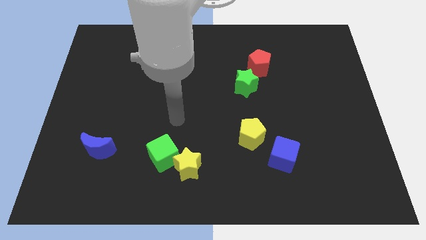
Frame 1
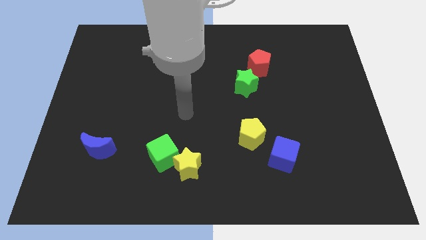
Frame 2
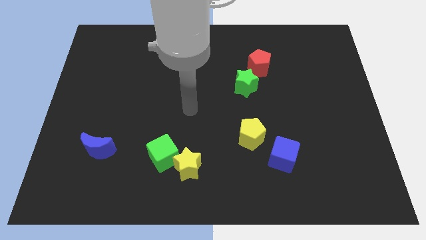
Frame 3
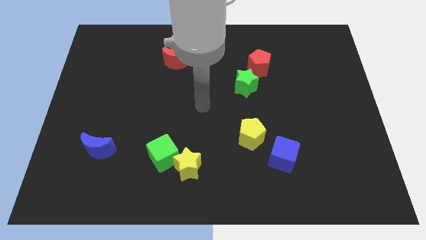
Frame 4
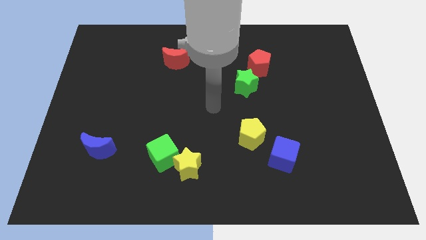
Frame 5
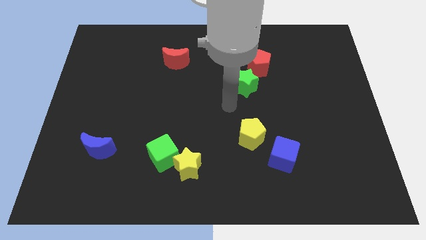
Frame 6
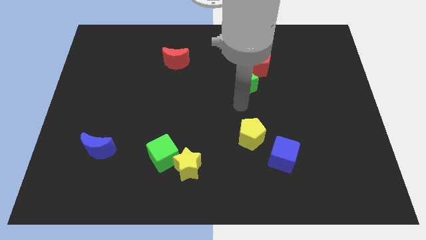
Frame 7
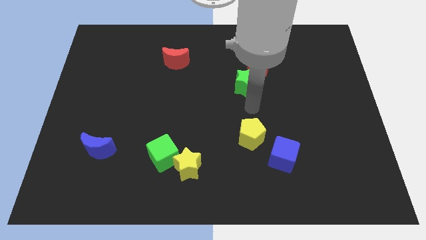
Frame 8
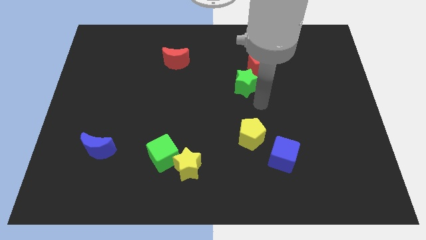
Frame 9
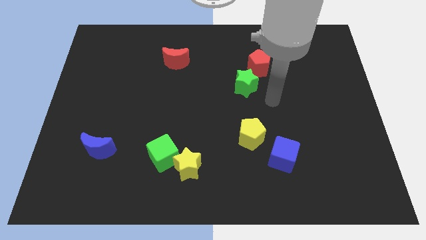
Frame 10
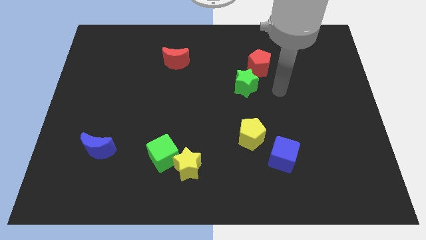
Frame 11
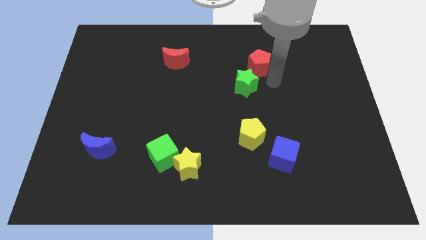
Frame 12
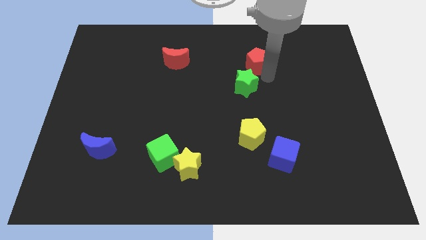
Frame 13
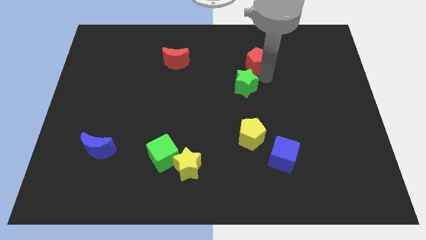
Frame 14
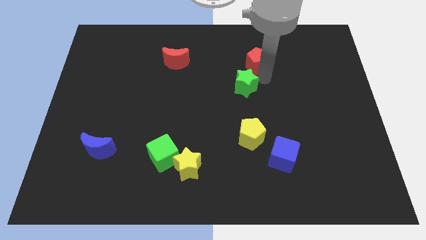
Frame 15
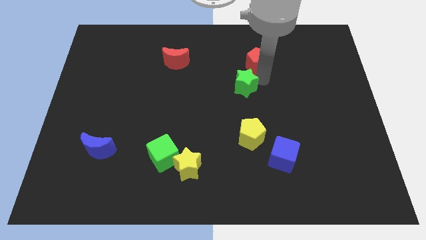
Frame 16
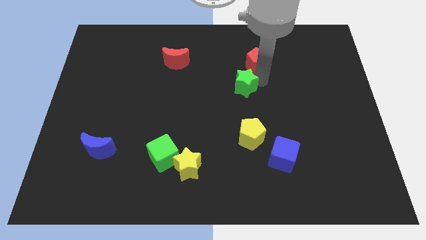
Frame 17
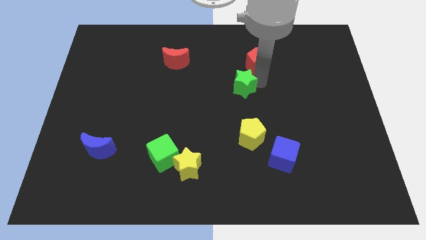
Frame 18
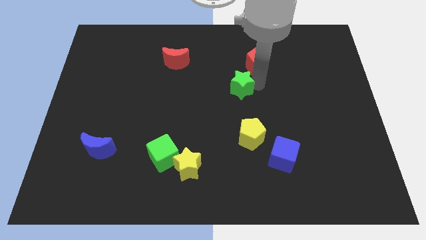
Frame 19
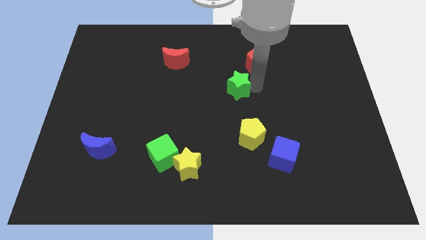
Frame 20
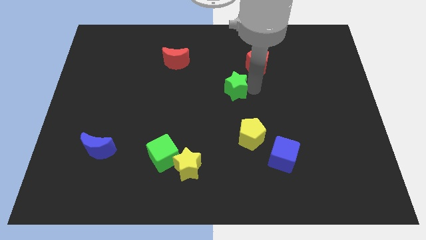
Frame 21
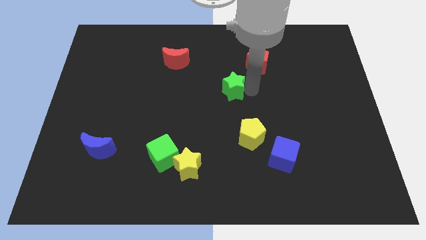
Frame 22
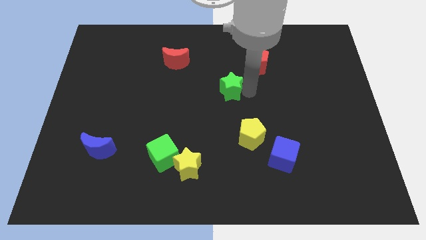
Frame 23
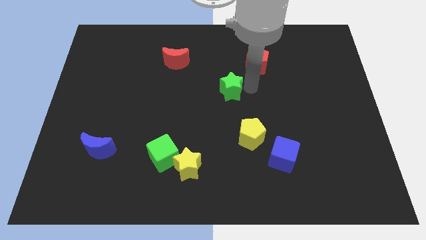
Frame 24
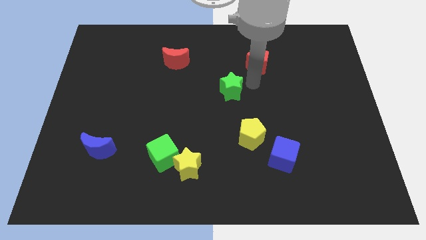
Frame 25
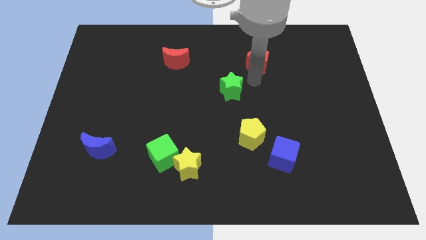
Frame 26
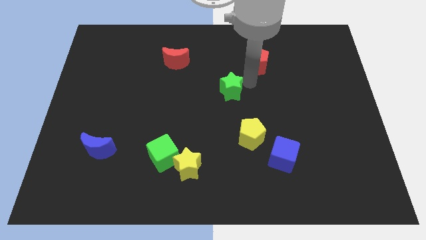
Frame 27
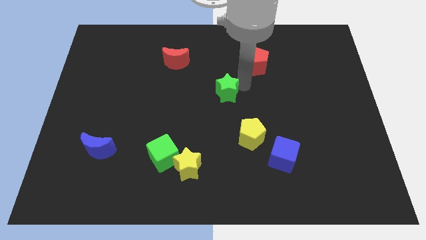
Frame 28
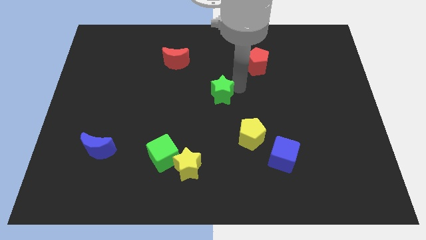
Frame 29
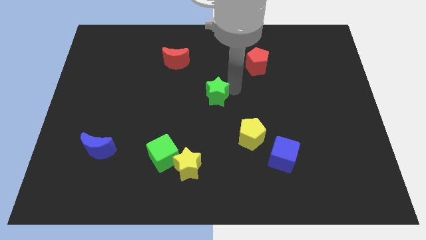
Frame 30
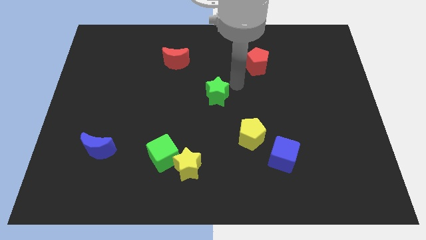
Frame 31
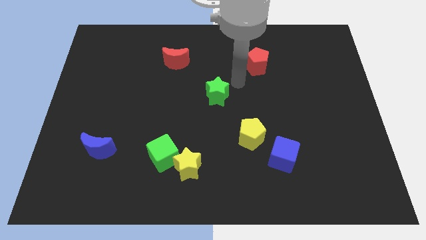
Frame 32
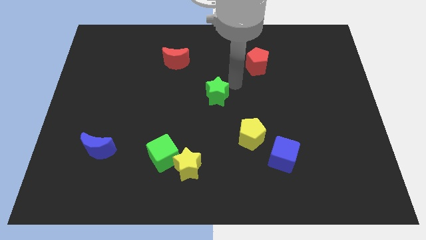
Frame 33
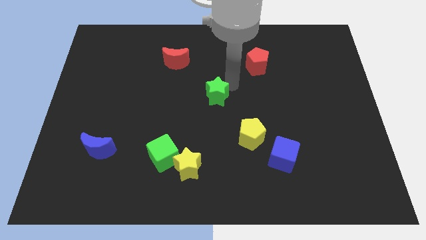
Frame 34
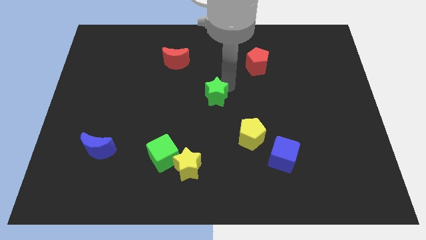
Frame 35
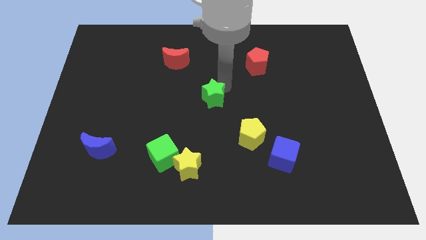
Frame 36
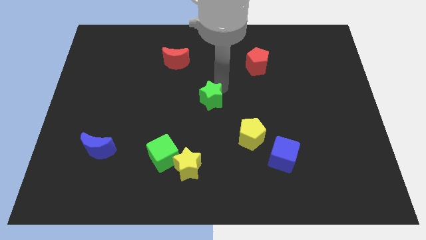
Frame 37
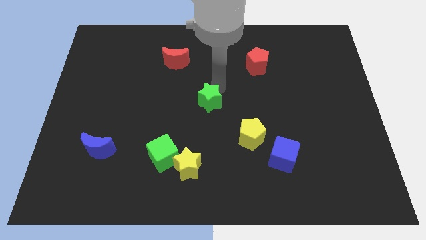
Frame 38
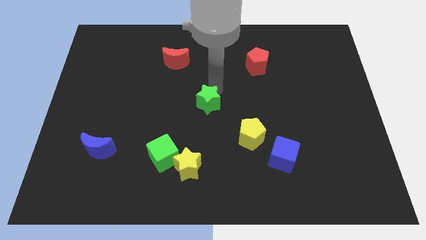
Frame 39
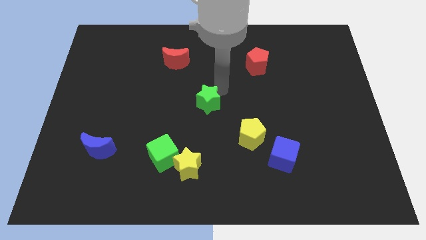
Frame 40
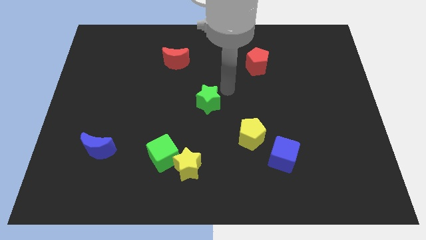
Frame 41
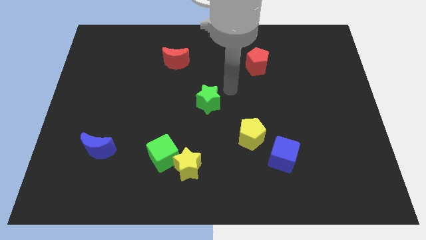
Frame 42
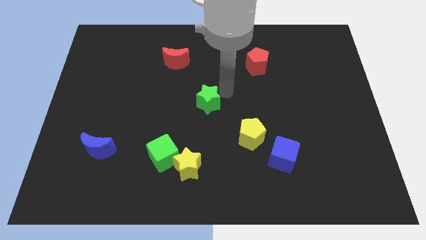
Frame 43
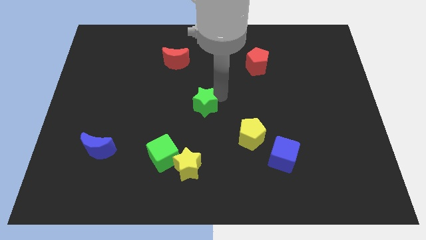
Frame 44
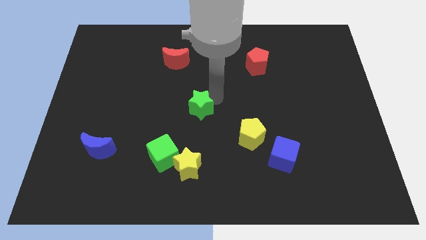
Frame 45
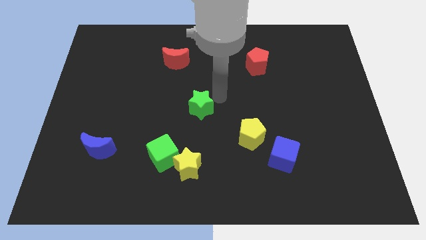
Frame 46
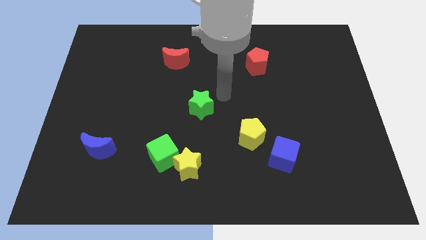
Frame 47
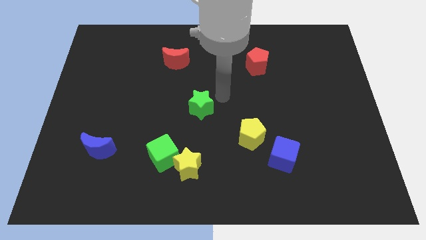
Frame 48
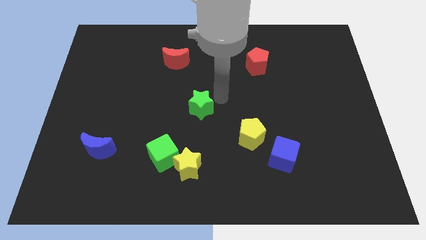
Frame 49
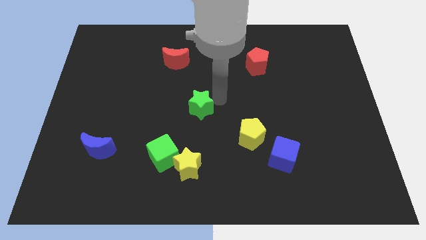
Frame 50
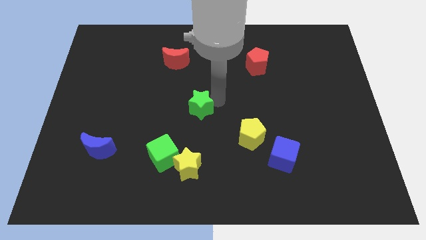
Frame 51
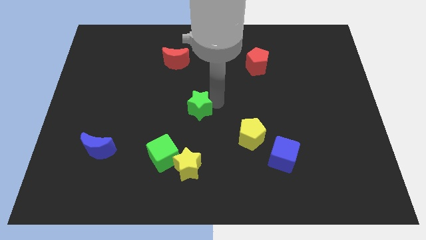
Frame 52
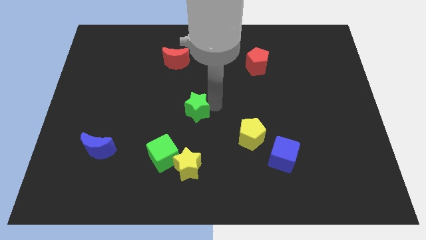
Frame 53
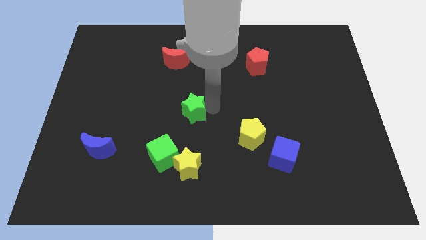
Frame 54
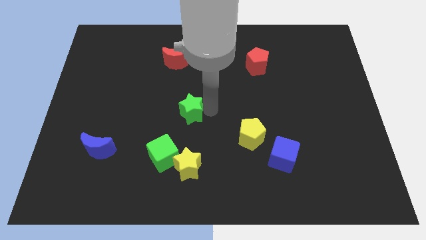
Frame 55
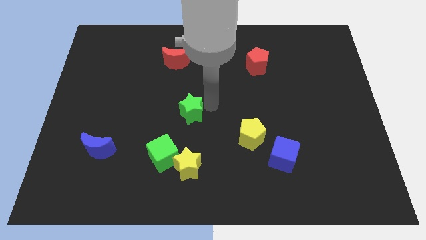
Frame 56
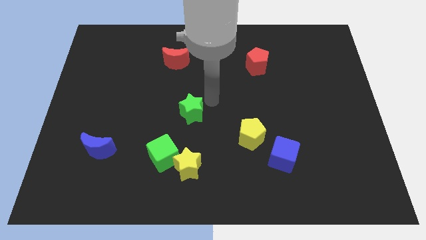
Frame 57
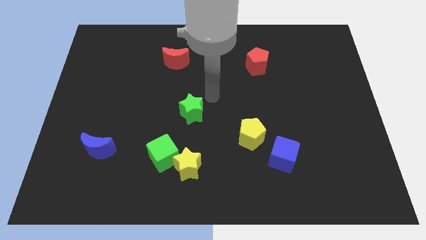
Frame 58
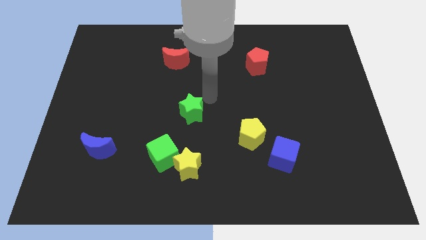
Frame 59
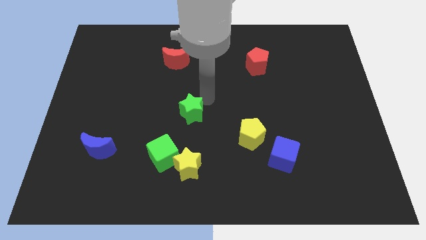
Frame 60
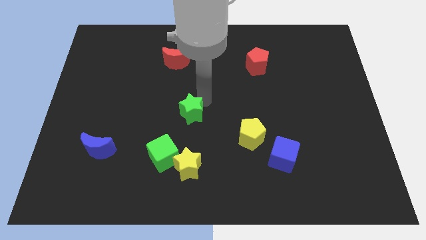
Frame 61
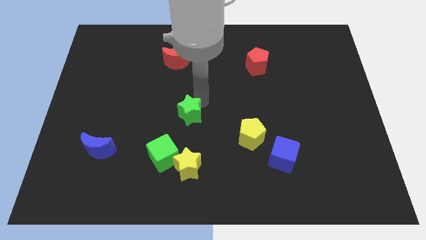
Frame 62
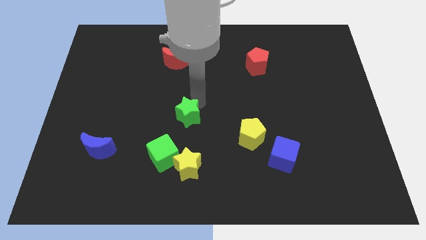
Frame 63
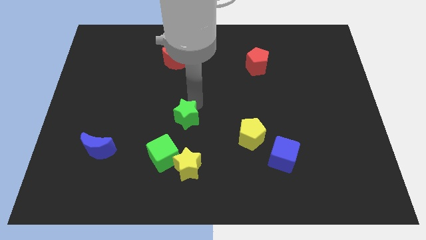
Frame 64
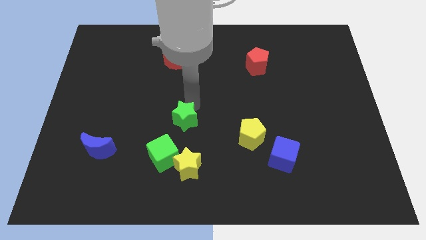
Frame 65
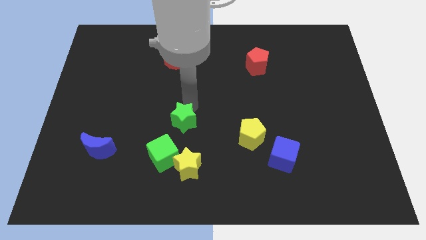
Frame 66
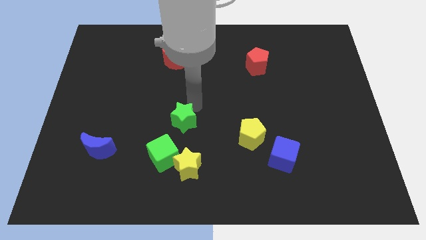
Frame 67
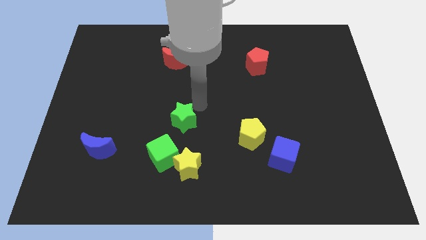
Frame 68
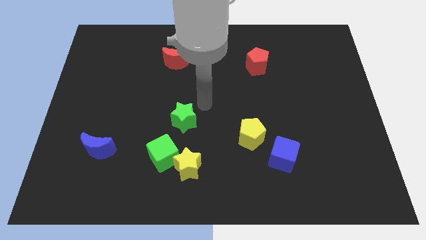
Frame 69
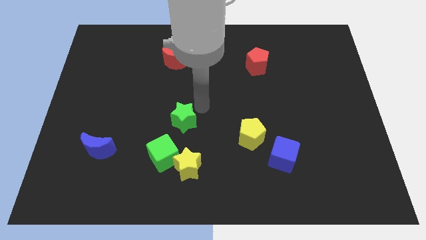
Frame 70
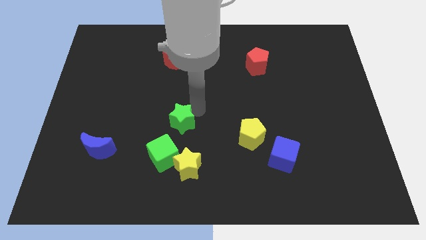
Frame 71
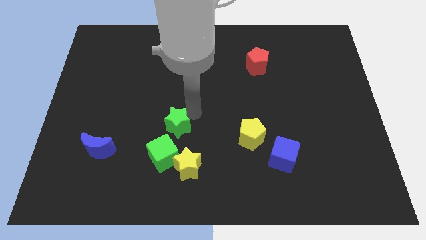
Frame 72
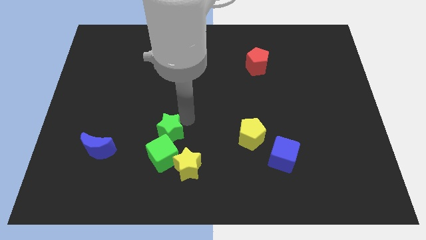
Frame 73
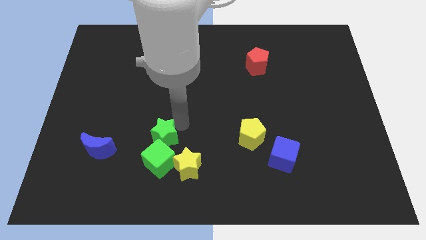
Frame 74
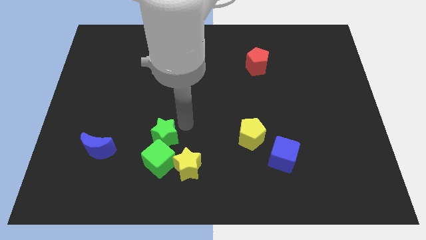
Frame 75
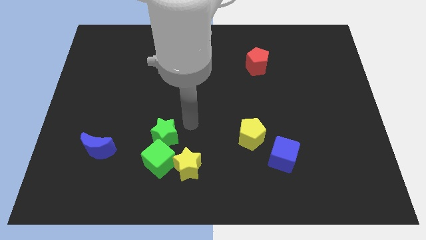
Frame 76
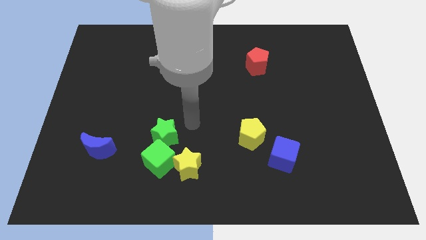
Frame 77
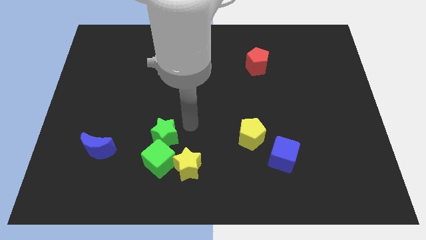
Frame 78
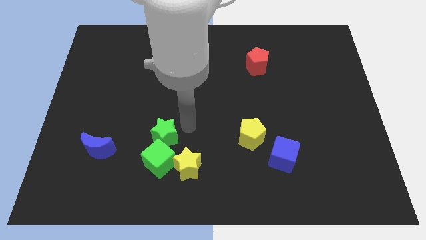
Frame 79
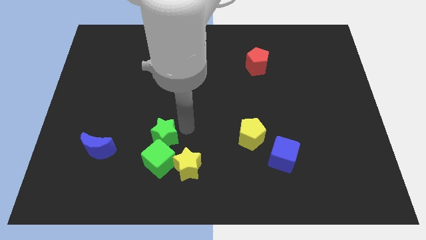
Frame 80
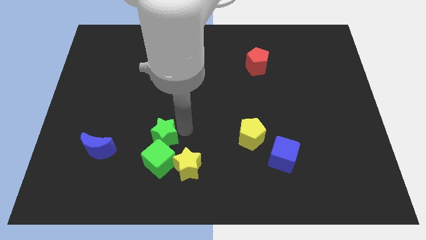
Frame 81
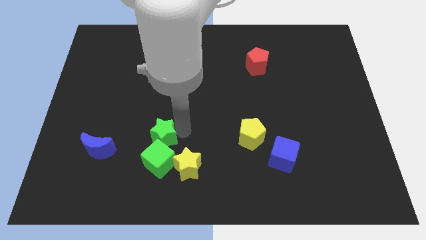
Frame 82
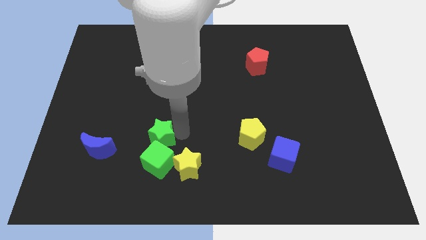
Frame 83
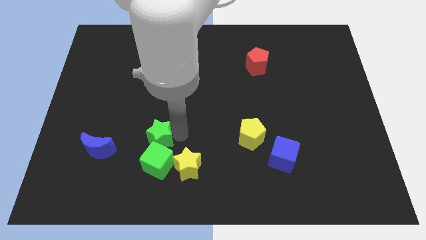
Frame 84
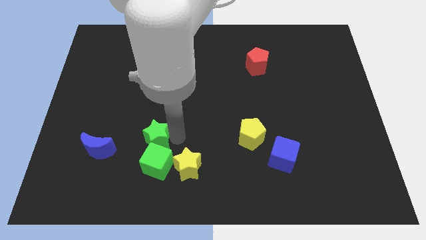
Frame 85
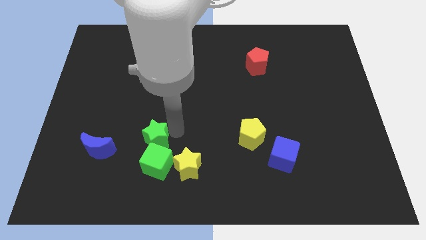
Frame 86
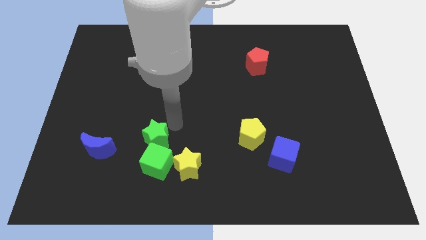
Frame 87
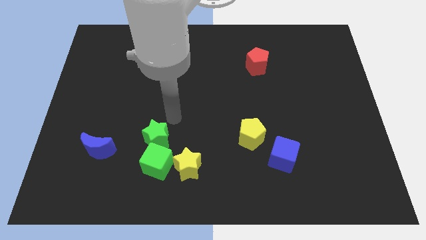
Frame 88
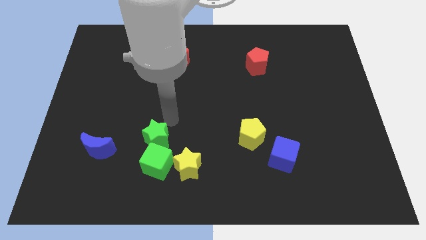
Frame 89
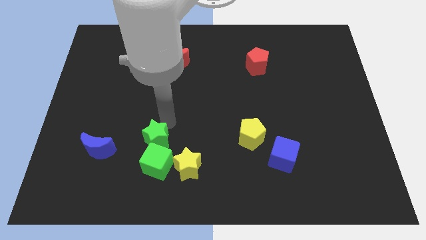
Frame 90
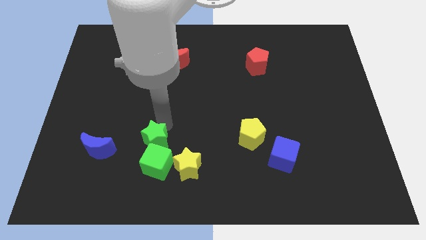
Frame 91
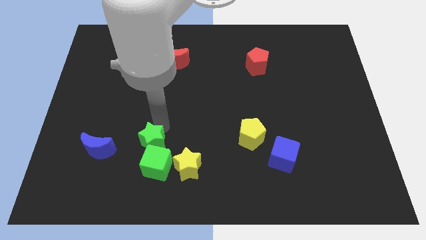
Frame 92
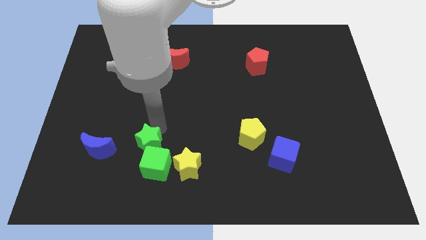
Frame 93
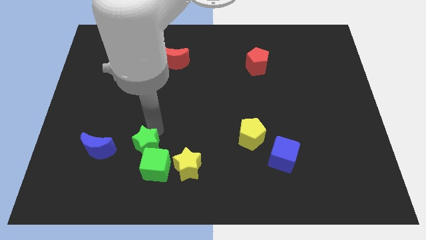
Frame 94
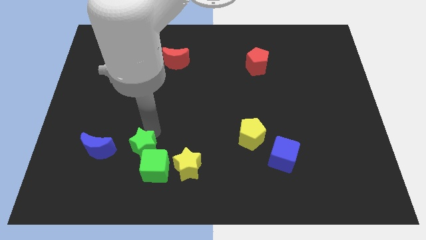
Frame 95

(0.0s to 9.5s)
move the green star to the left side of the yellow star
